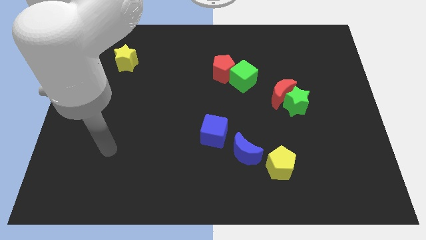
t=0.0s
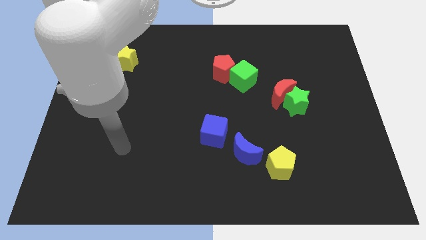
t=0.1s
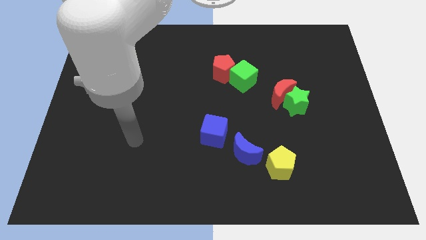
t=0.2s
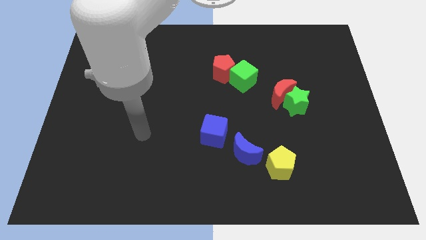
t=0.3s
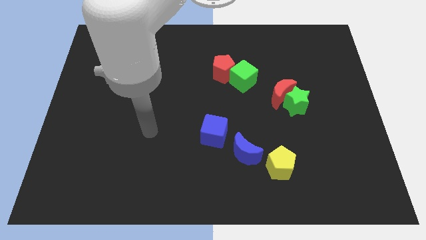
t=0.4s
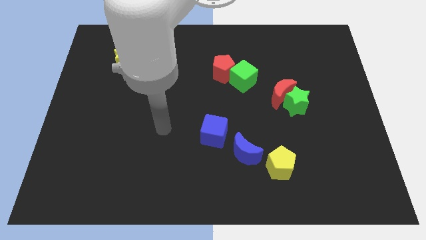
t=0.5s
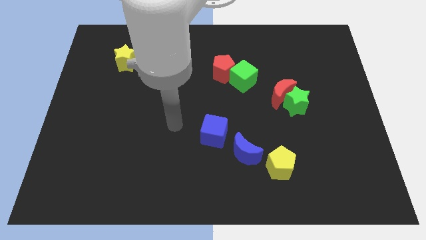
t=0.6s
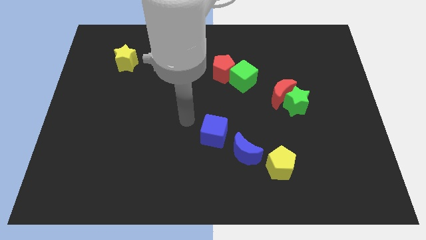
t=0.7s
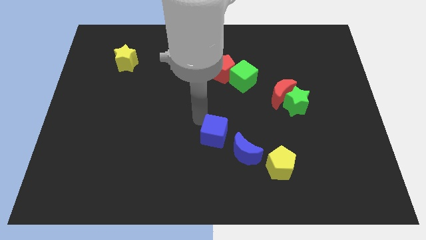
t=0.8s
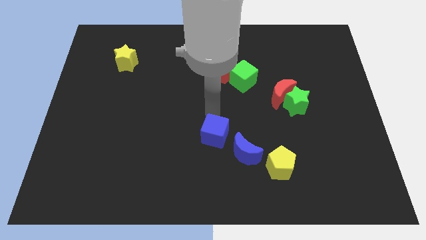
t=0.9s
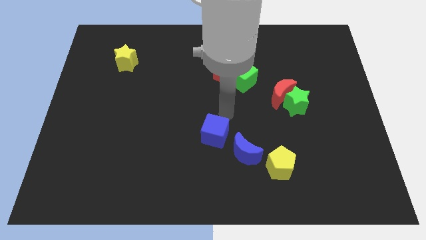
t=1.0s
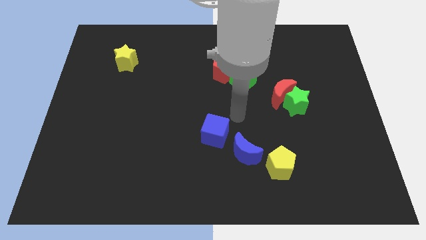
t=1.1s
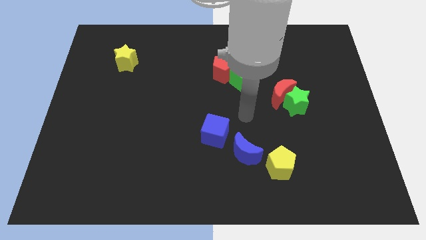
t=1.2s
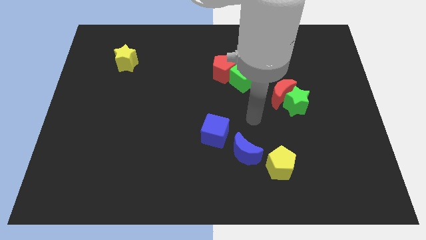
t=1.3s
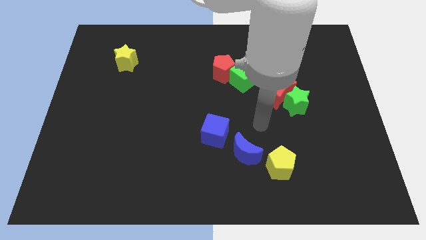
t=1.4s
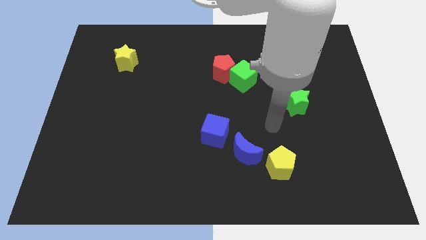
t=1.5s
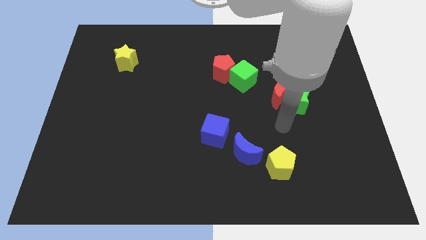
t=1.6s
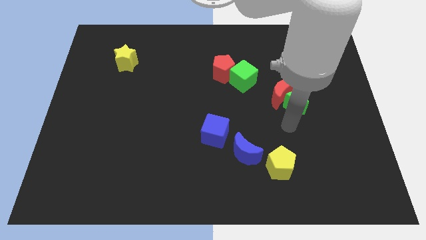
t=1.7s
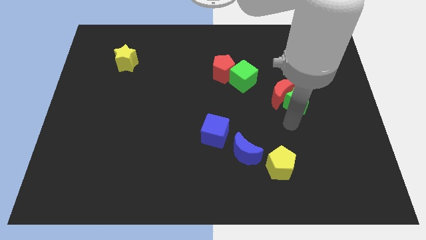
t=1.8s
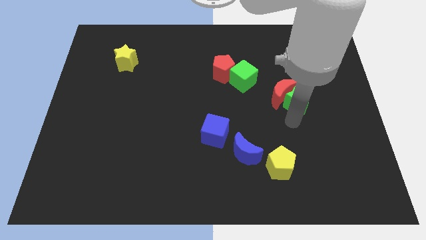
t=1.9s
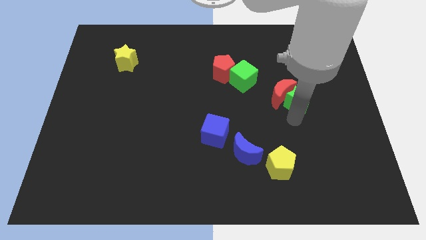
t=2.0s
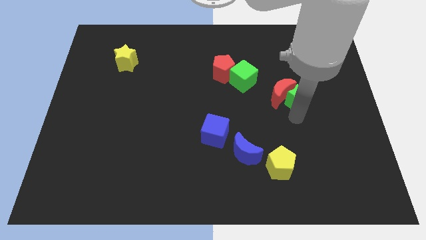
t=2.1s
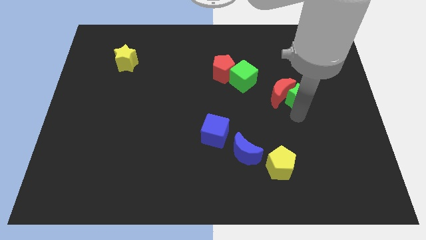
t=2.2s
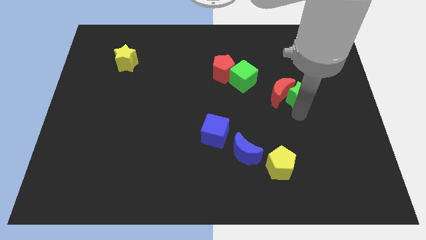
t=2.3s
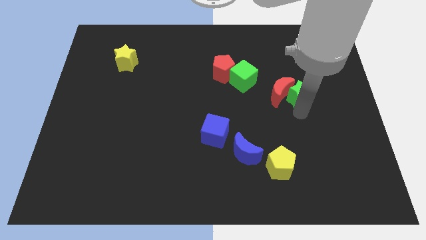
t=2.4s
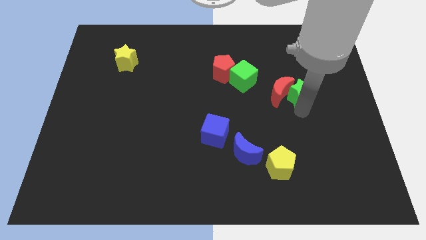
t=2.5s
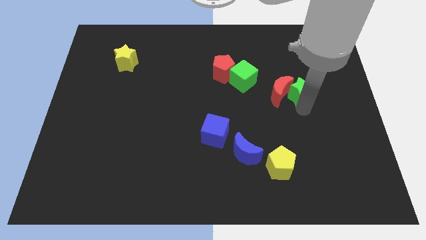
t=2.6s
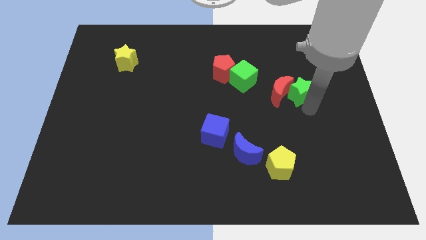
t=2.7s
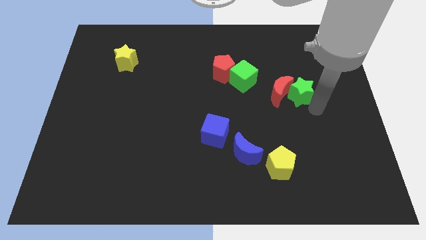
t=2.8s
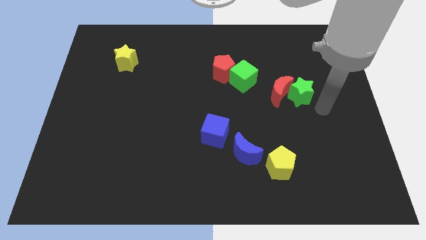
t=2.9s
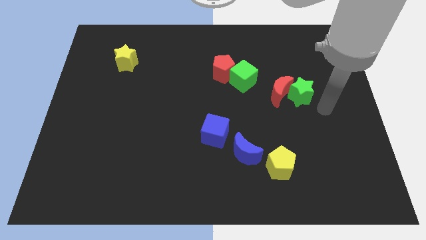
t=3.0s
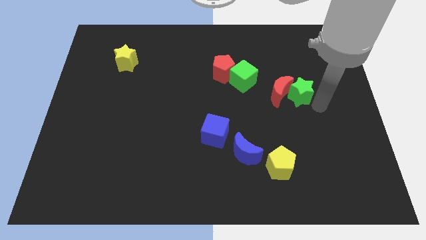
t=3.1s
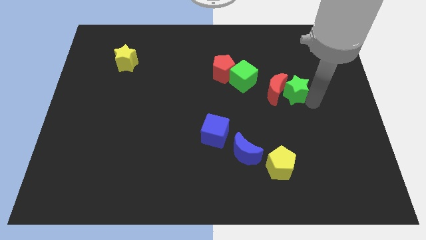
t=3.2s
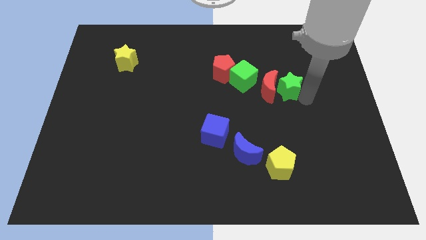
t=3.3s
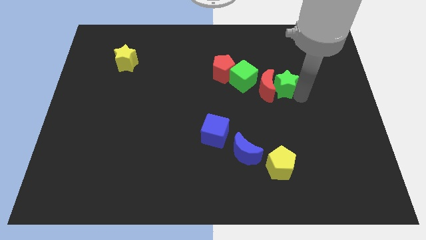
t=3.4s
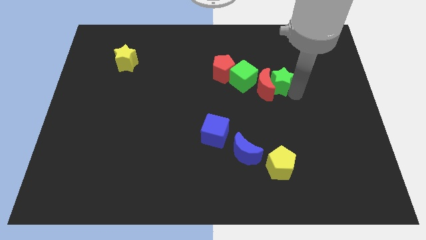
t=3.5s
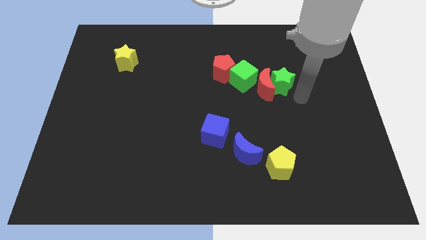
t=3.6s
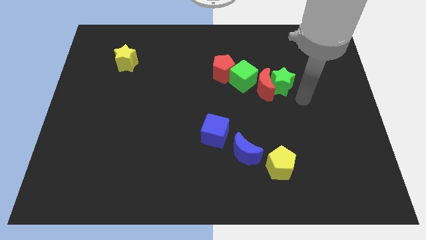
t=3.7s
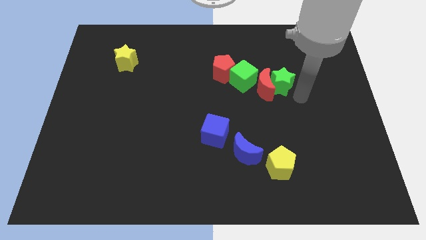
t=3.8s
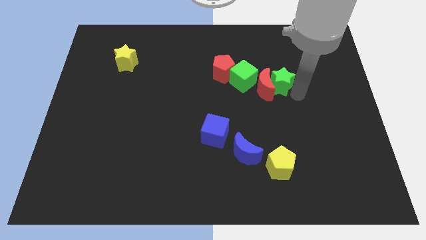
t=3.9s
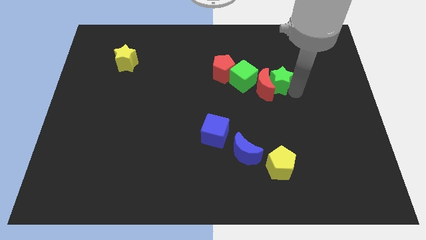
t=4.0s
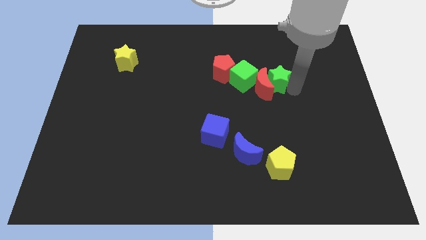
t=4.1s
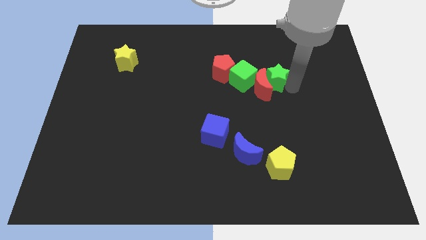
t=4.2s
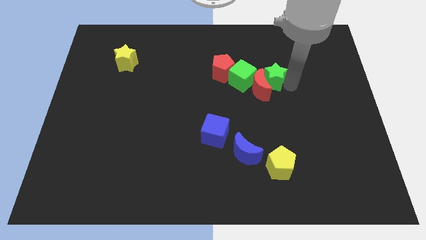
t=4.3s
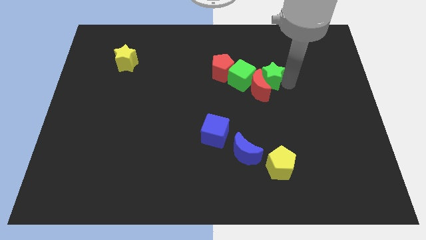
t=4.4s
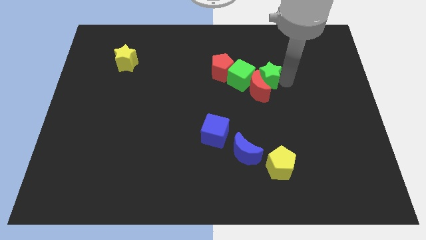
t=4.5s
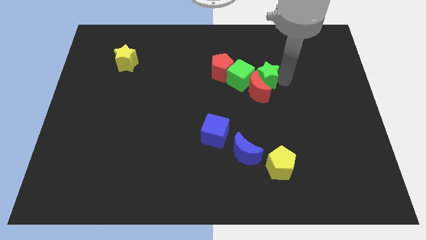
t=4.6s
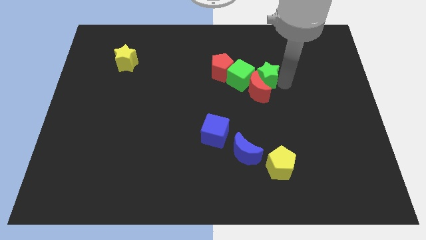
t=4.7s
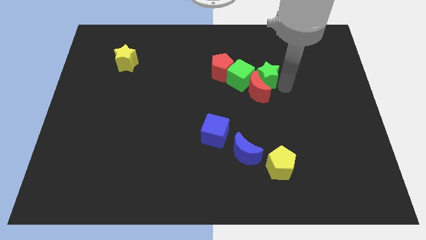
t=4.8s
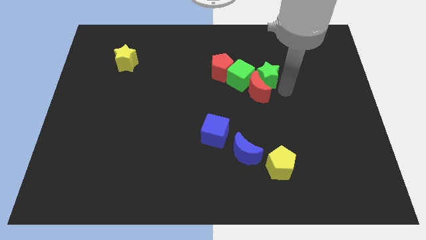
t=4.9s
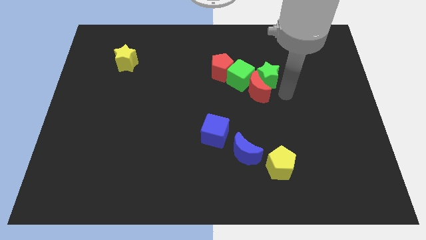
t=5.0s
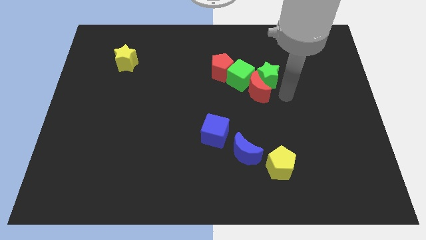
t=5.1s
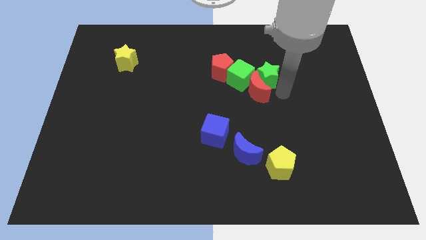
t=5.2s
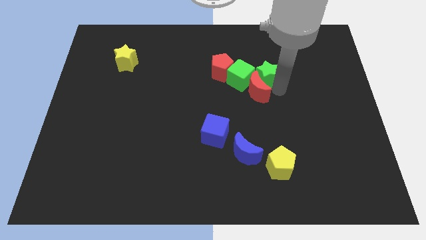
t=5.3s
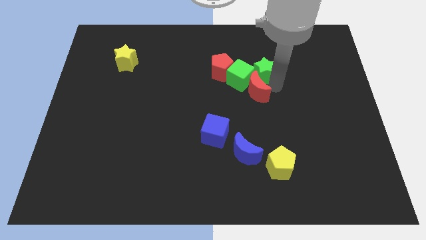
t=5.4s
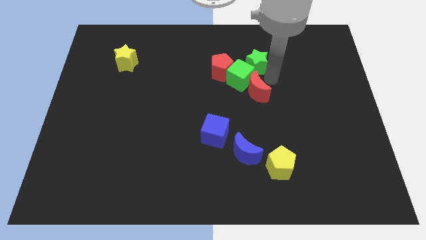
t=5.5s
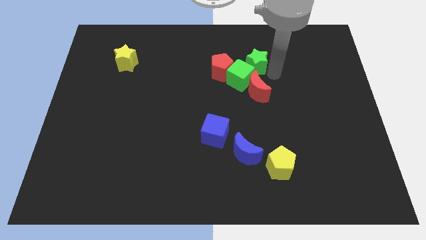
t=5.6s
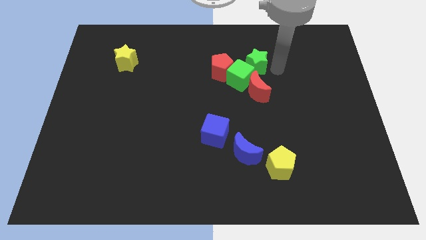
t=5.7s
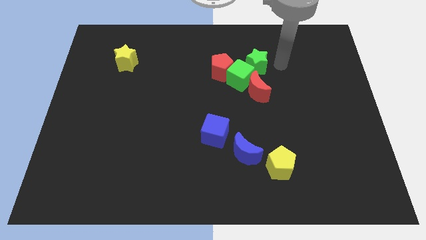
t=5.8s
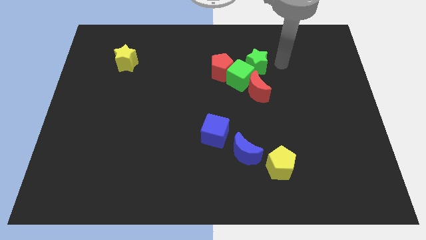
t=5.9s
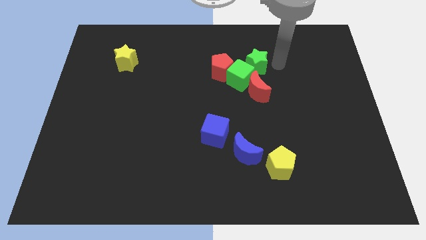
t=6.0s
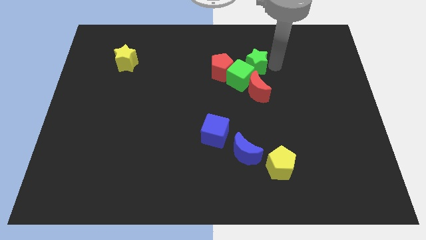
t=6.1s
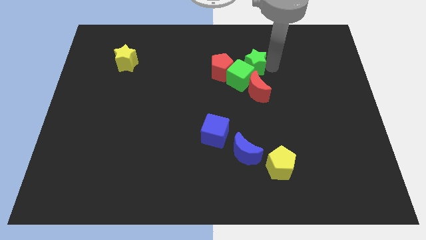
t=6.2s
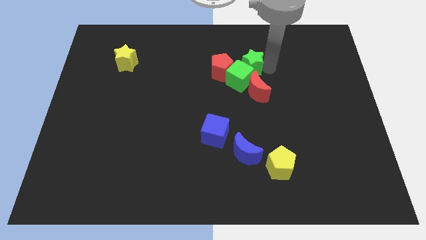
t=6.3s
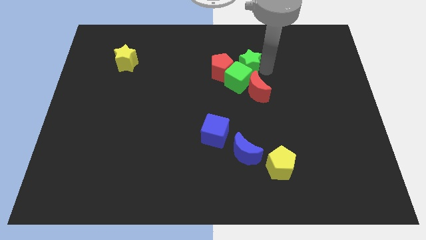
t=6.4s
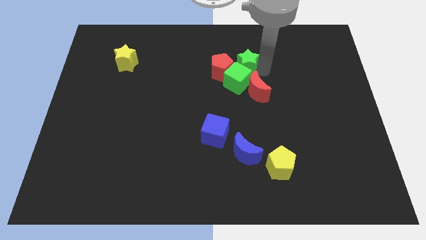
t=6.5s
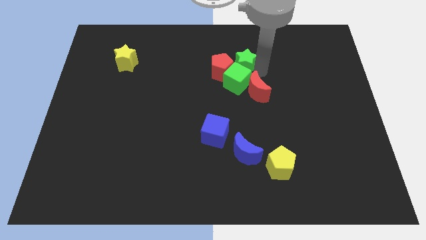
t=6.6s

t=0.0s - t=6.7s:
push the green star close to the red pentagon
